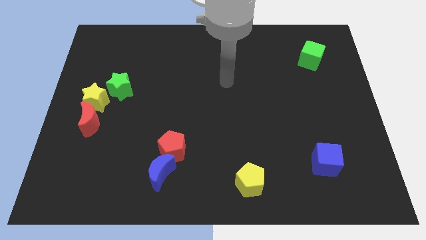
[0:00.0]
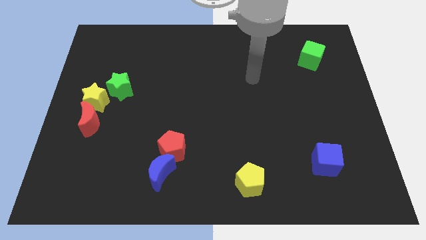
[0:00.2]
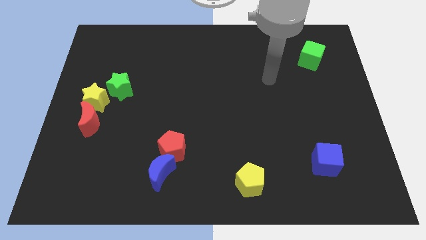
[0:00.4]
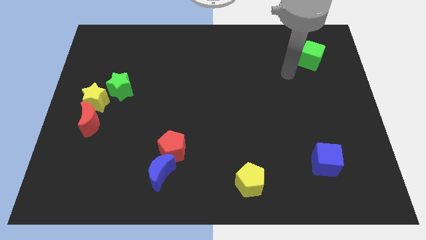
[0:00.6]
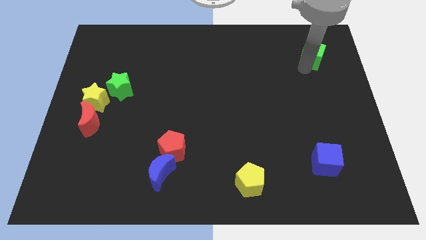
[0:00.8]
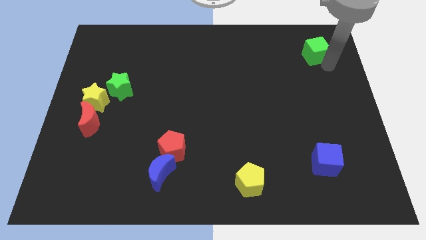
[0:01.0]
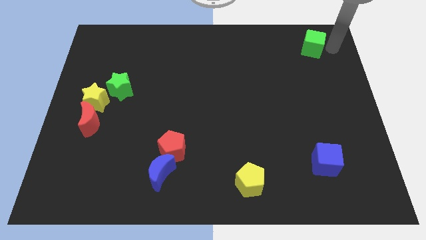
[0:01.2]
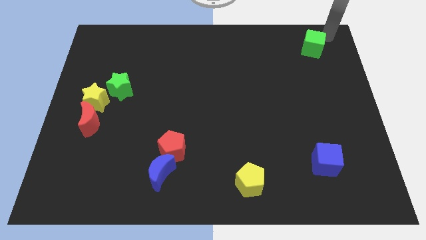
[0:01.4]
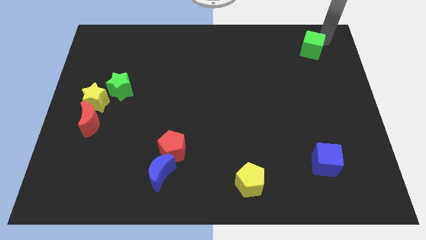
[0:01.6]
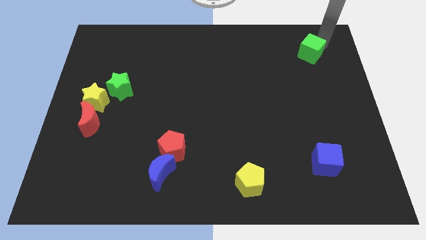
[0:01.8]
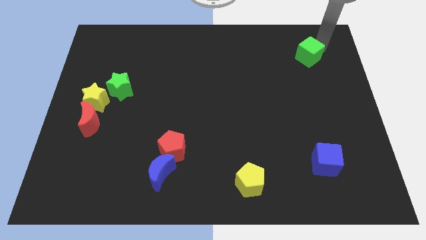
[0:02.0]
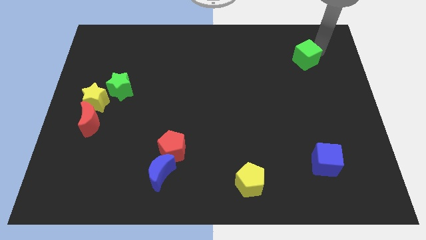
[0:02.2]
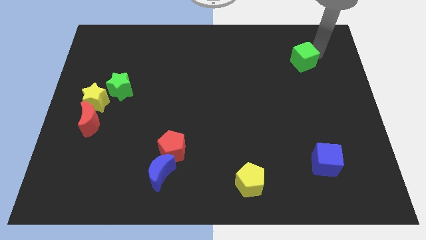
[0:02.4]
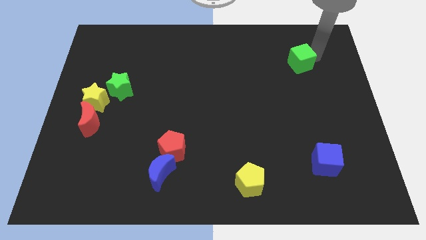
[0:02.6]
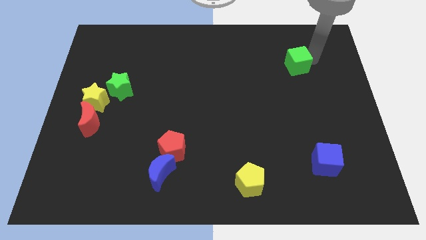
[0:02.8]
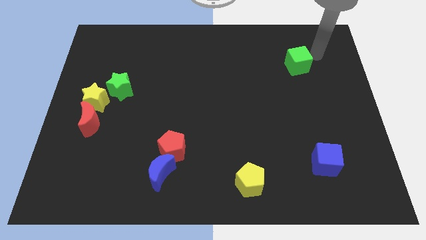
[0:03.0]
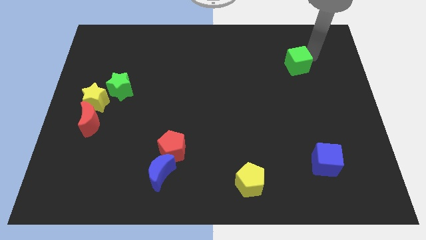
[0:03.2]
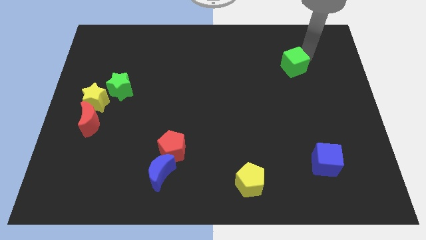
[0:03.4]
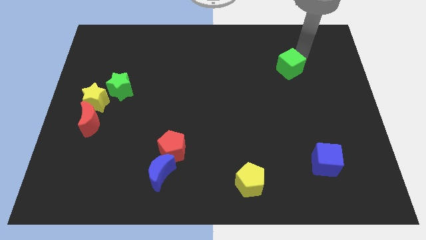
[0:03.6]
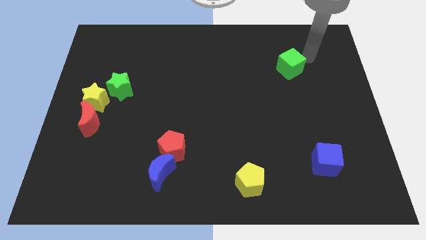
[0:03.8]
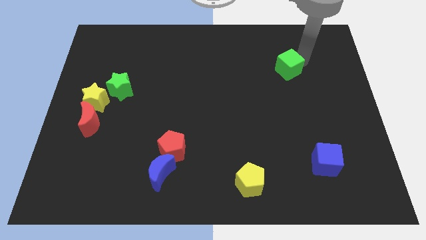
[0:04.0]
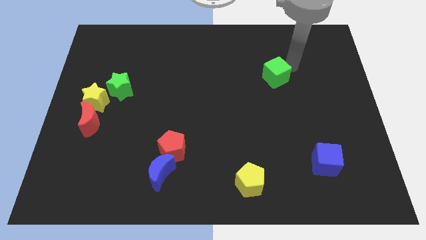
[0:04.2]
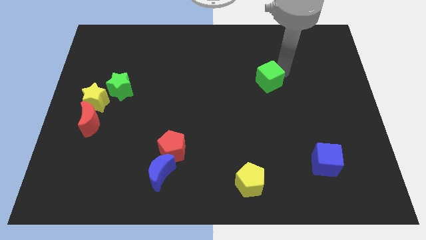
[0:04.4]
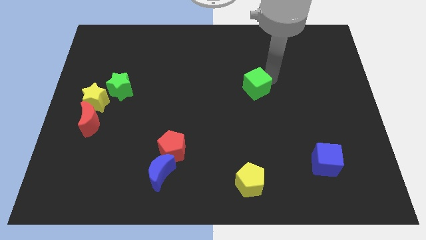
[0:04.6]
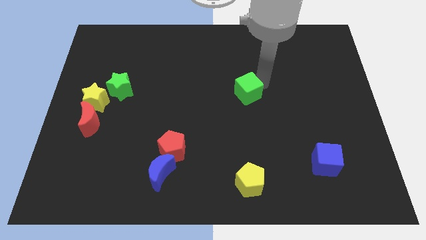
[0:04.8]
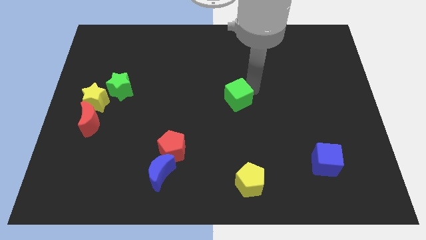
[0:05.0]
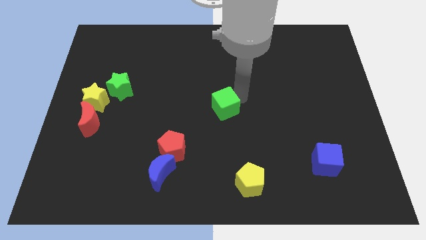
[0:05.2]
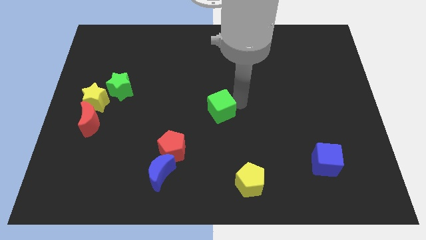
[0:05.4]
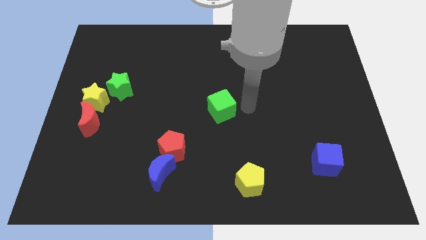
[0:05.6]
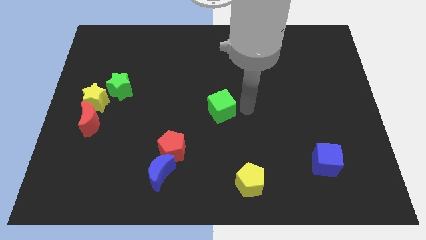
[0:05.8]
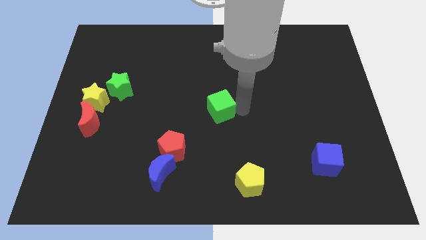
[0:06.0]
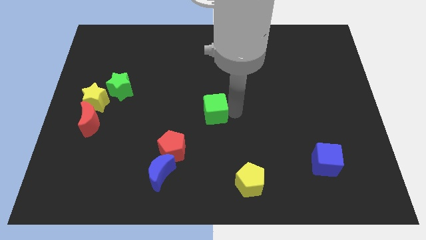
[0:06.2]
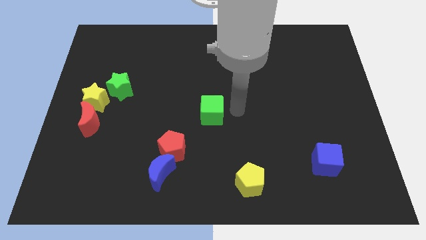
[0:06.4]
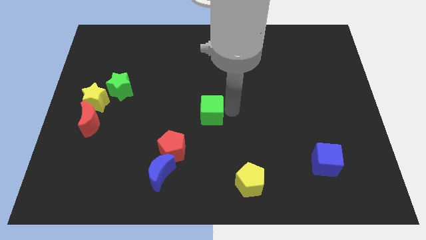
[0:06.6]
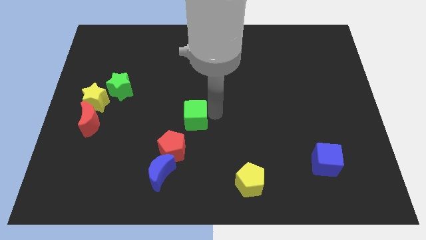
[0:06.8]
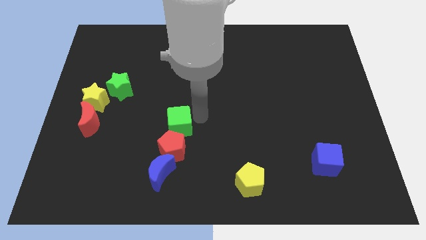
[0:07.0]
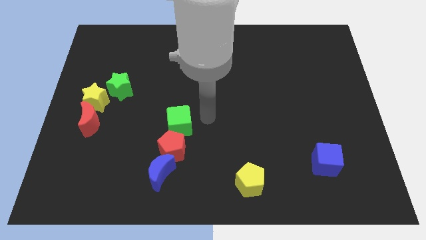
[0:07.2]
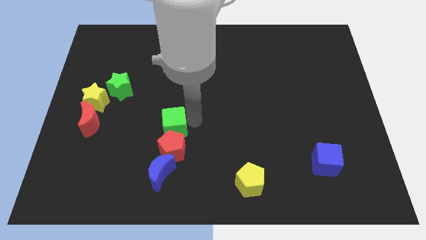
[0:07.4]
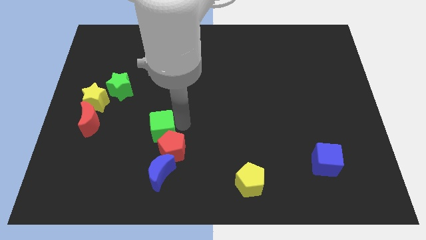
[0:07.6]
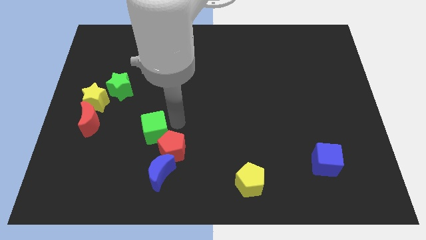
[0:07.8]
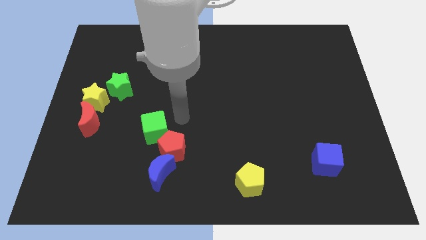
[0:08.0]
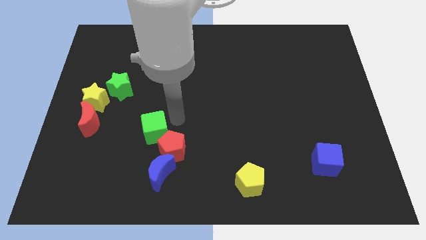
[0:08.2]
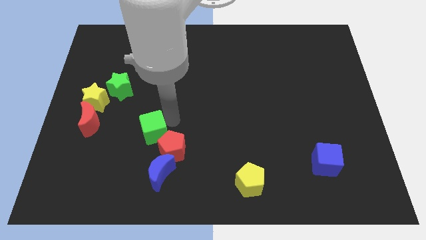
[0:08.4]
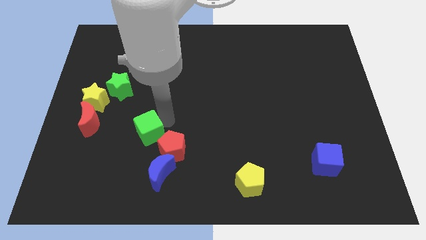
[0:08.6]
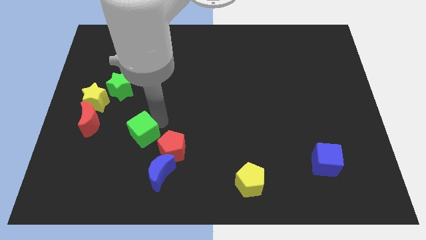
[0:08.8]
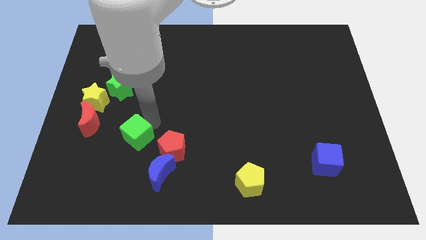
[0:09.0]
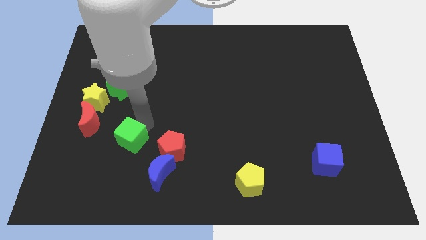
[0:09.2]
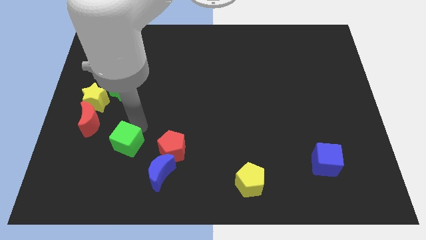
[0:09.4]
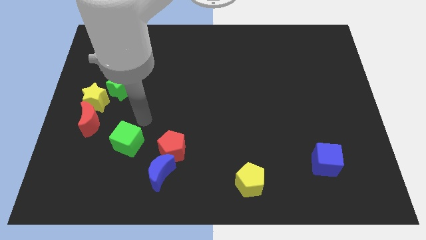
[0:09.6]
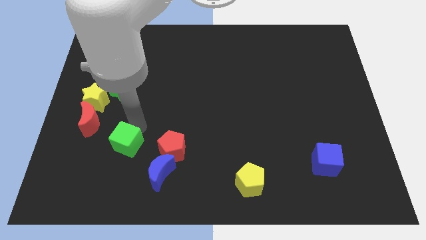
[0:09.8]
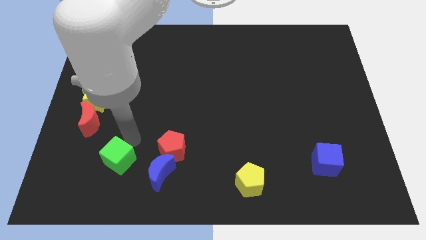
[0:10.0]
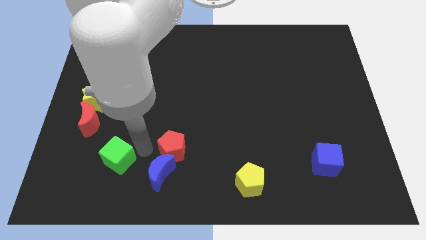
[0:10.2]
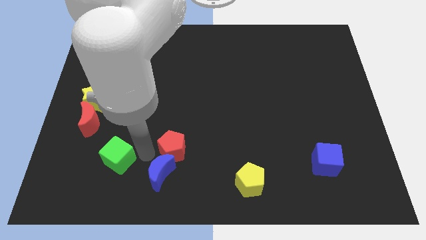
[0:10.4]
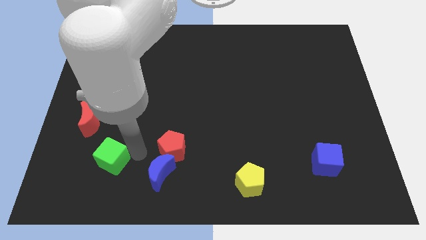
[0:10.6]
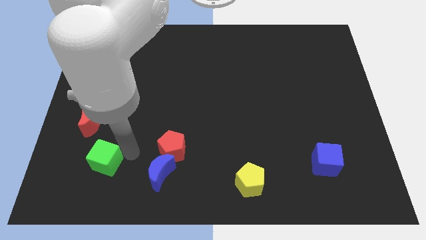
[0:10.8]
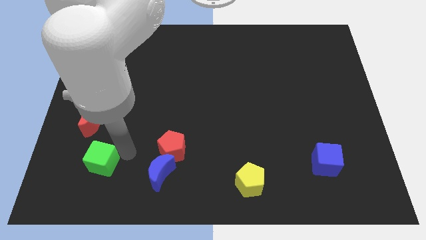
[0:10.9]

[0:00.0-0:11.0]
put the green cube to the bottom of the red moon

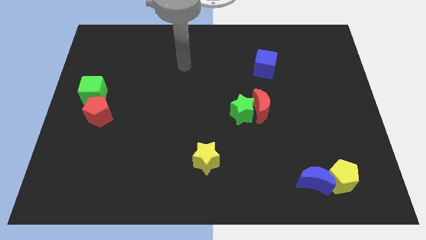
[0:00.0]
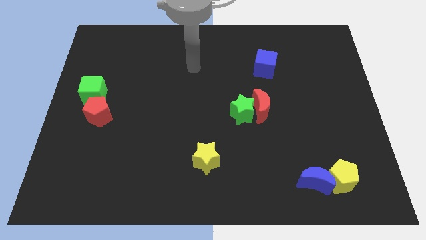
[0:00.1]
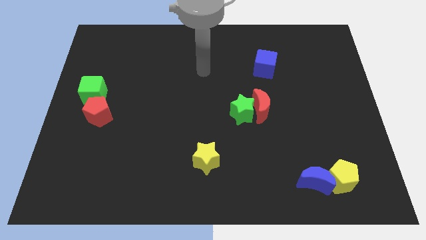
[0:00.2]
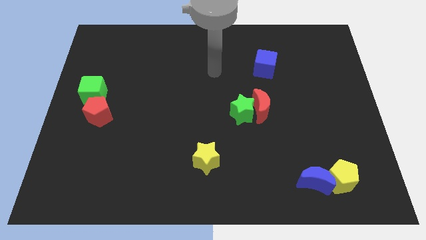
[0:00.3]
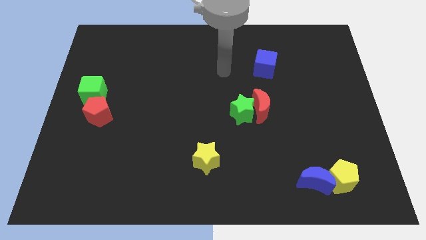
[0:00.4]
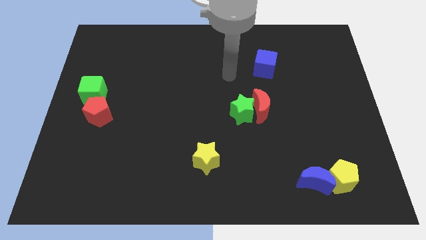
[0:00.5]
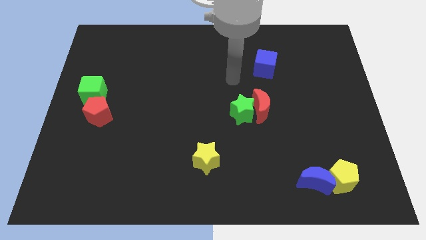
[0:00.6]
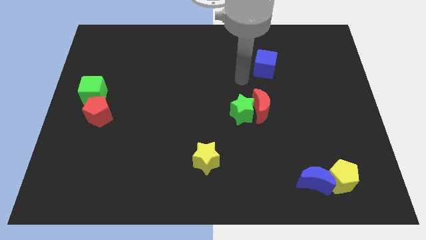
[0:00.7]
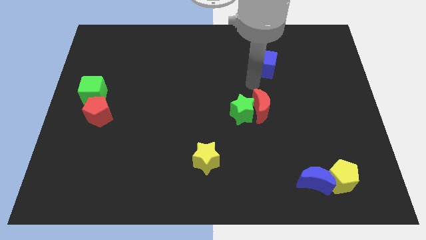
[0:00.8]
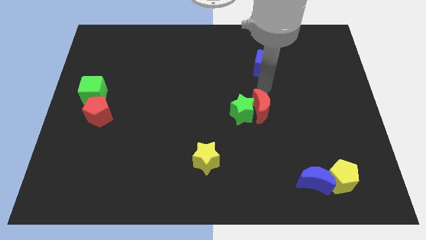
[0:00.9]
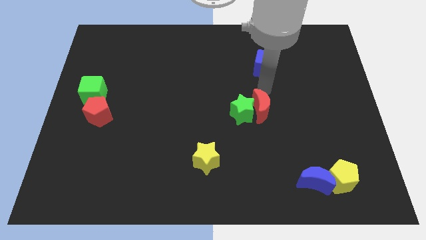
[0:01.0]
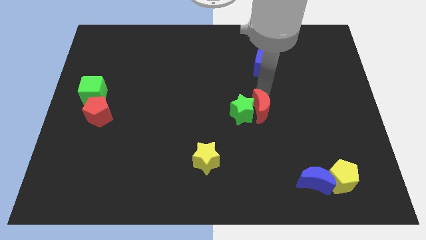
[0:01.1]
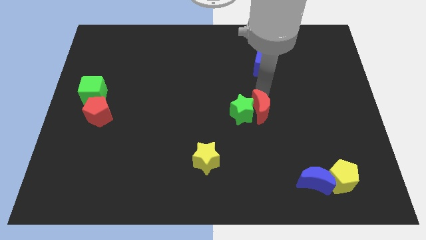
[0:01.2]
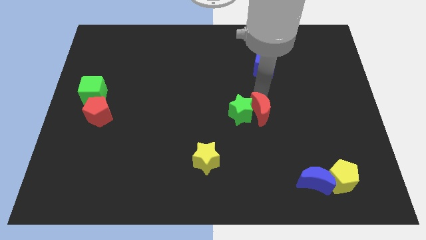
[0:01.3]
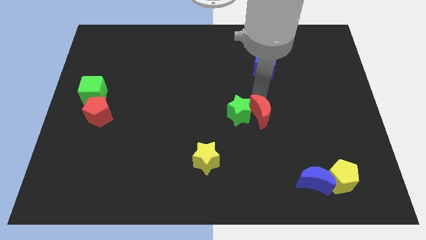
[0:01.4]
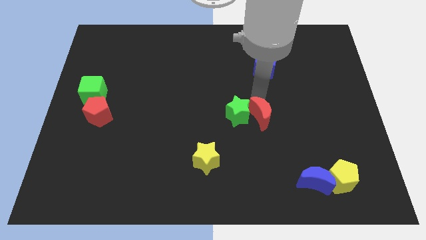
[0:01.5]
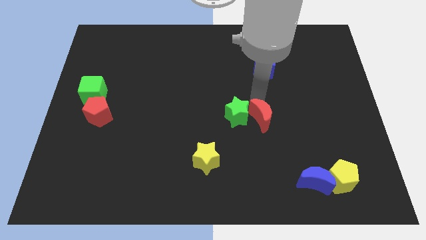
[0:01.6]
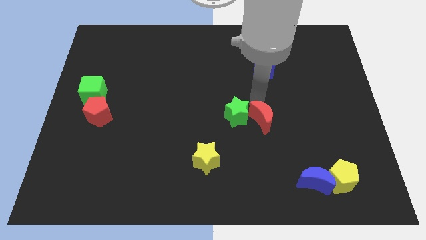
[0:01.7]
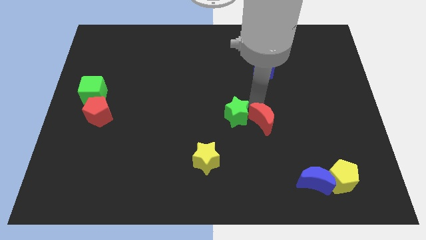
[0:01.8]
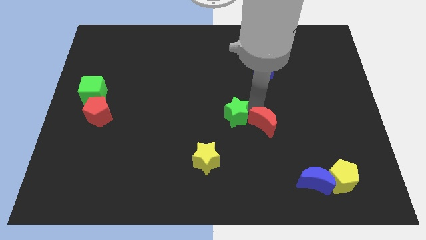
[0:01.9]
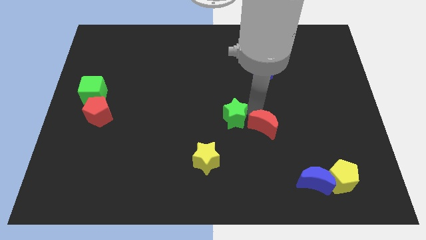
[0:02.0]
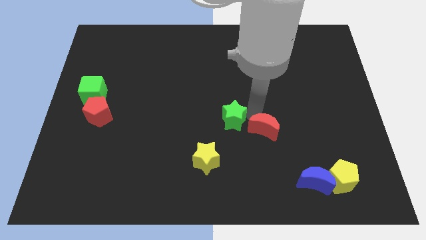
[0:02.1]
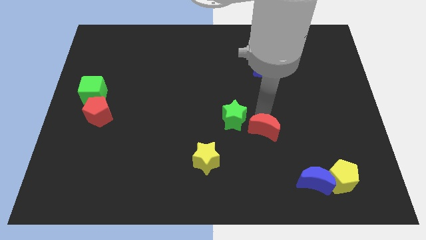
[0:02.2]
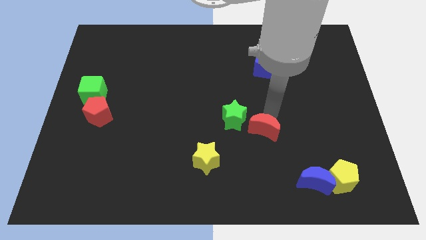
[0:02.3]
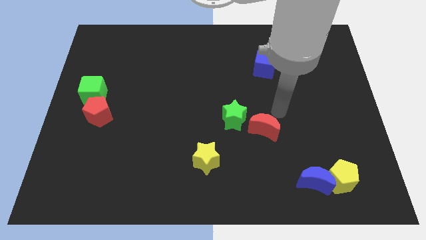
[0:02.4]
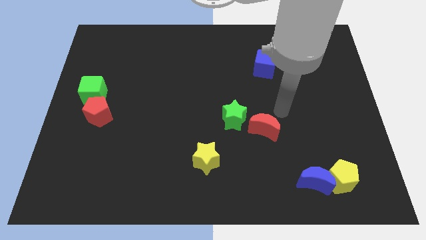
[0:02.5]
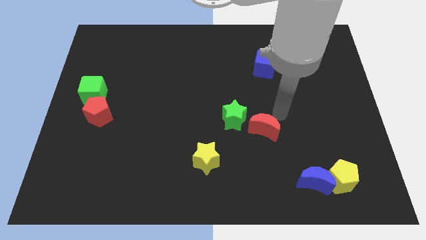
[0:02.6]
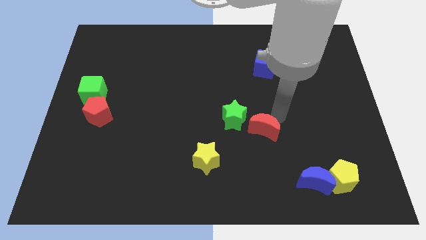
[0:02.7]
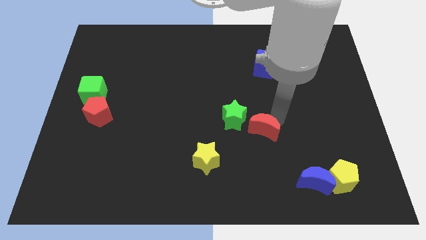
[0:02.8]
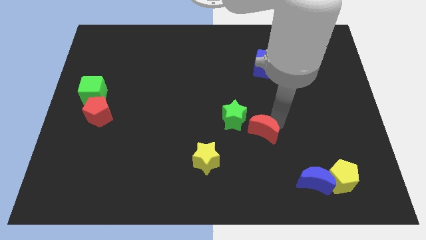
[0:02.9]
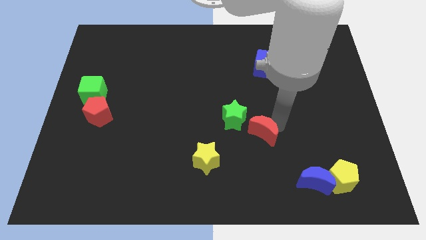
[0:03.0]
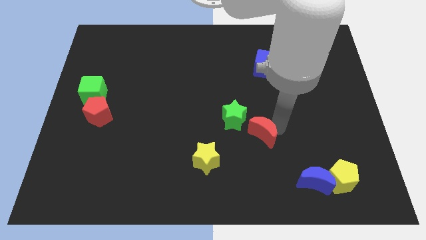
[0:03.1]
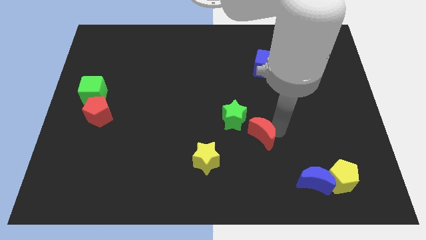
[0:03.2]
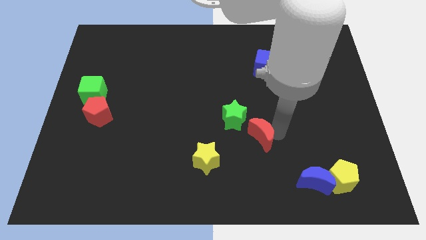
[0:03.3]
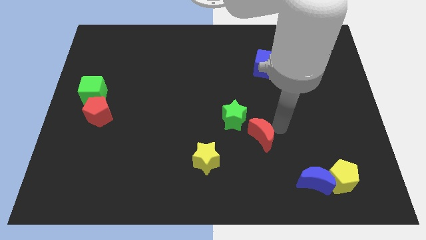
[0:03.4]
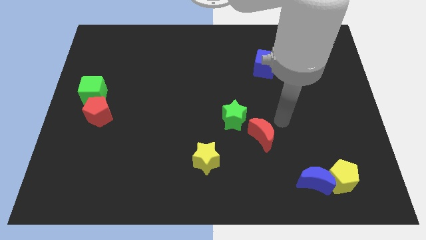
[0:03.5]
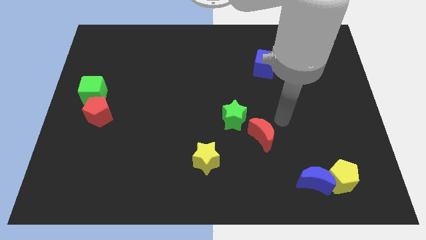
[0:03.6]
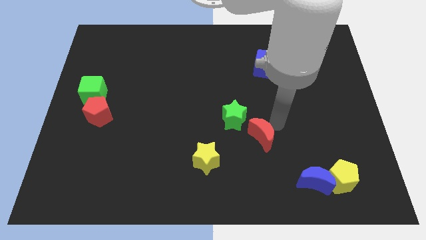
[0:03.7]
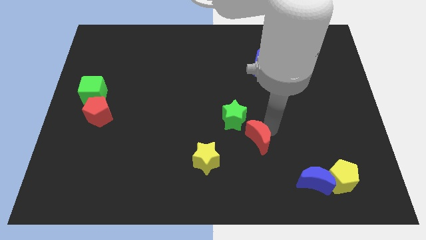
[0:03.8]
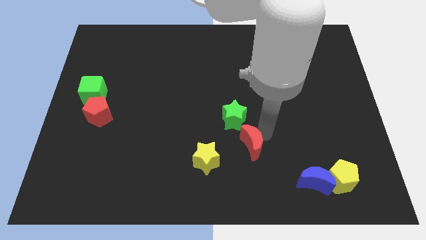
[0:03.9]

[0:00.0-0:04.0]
push the red moon below the green star
